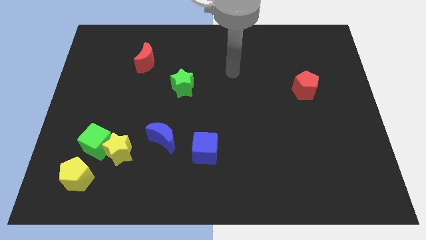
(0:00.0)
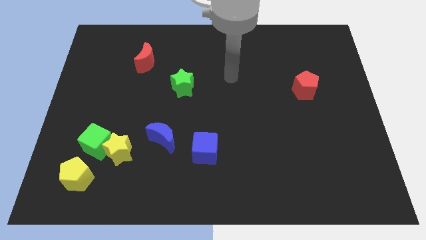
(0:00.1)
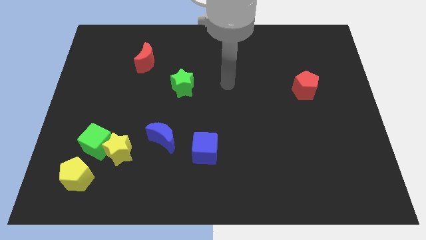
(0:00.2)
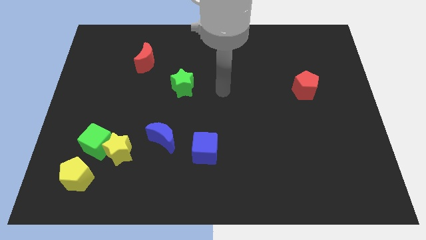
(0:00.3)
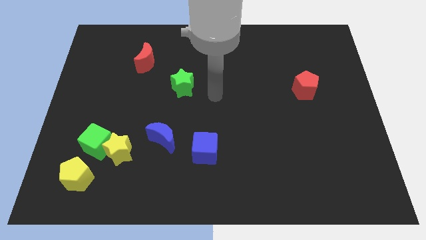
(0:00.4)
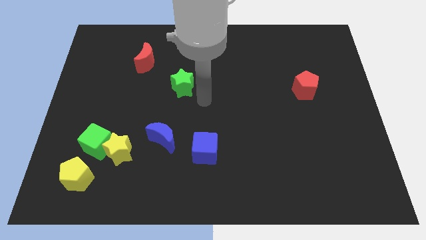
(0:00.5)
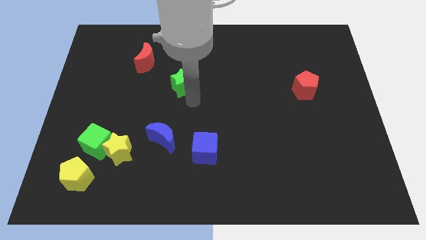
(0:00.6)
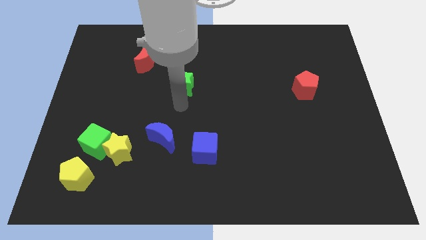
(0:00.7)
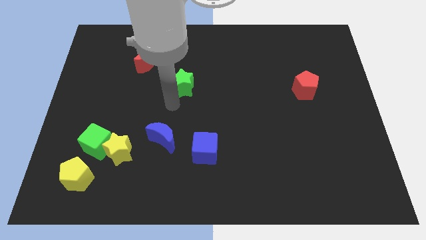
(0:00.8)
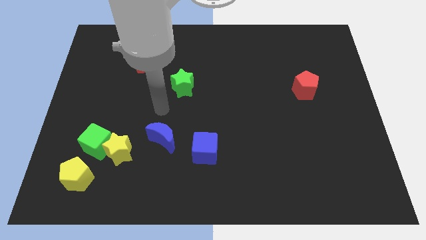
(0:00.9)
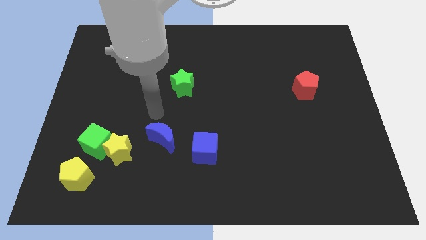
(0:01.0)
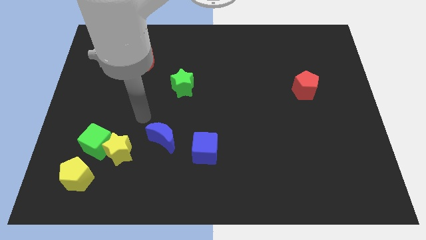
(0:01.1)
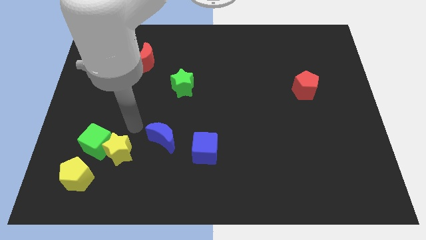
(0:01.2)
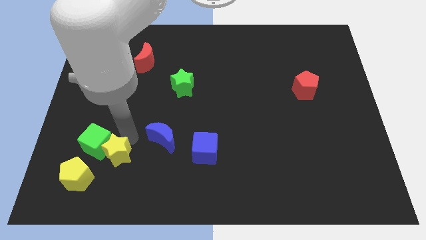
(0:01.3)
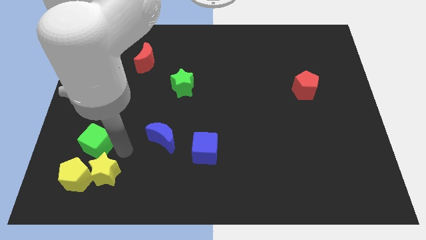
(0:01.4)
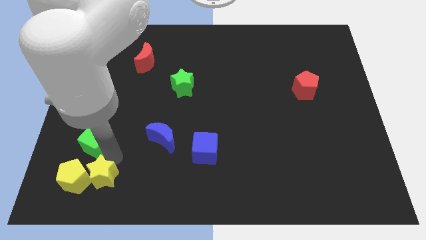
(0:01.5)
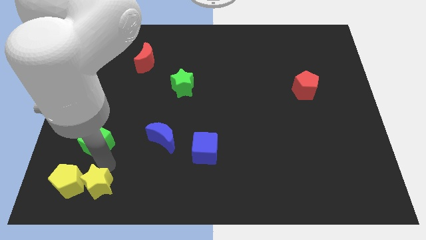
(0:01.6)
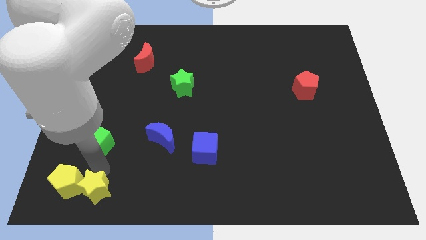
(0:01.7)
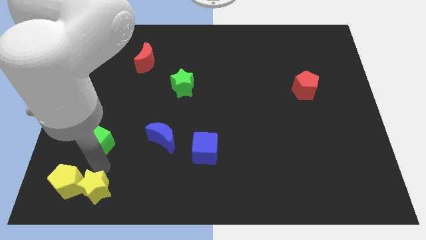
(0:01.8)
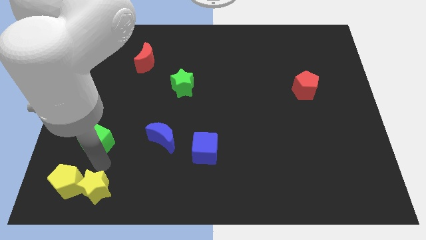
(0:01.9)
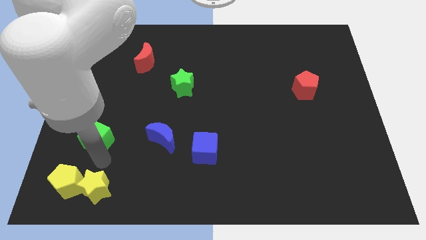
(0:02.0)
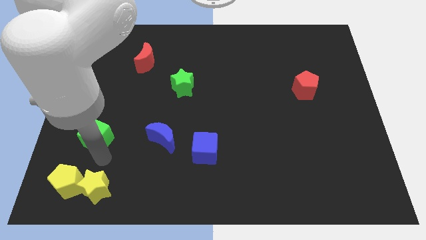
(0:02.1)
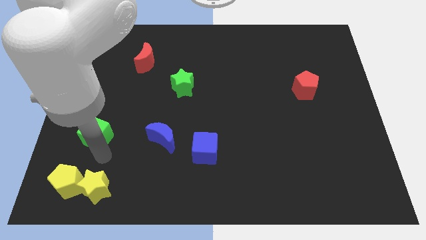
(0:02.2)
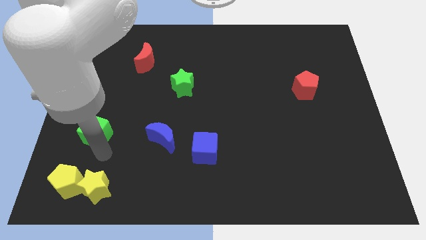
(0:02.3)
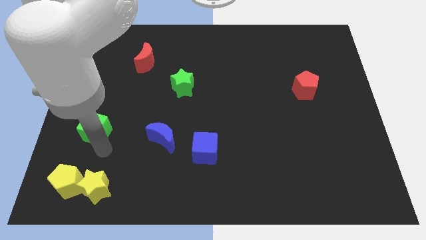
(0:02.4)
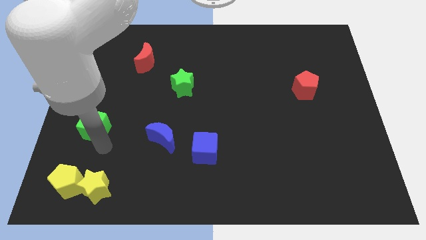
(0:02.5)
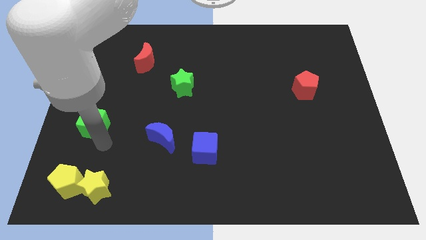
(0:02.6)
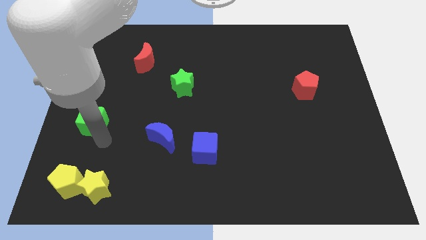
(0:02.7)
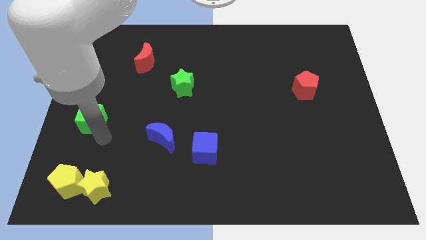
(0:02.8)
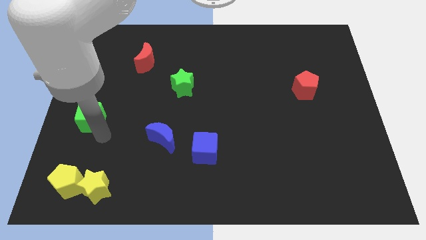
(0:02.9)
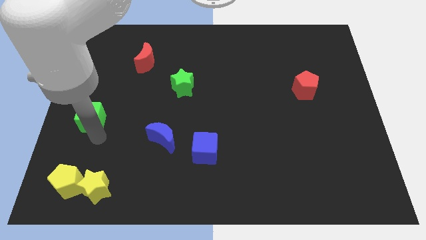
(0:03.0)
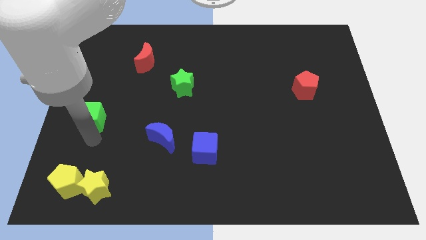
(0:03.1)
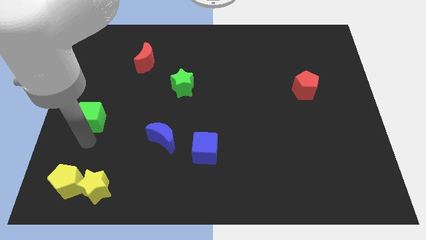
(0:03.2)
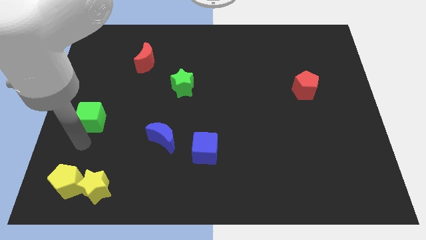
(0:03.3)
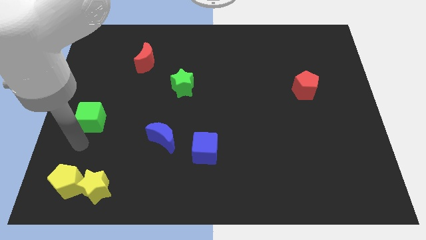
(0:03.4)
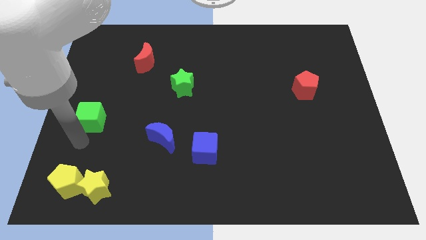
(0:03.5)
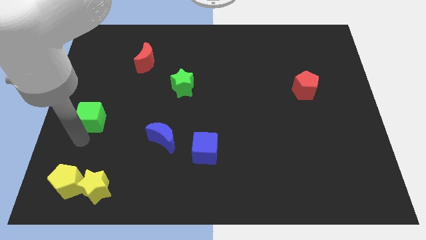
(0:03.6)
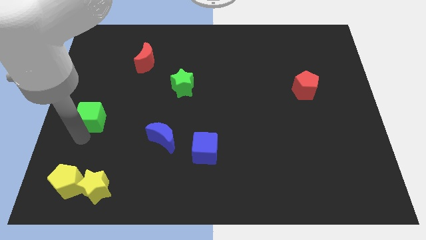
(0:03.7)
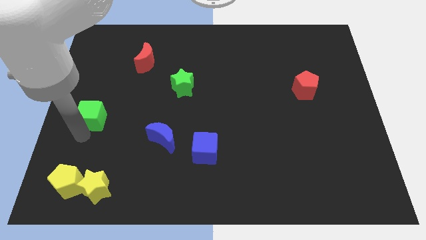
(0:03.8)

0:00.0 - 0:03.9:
move the green cube up a bit

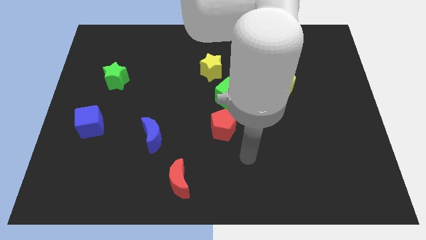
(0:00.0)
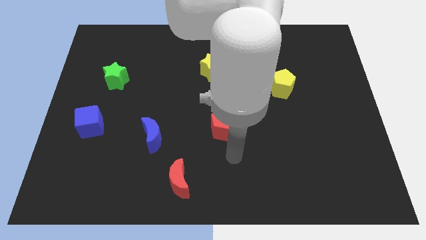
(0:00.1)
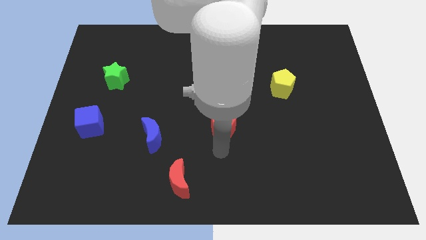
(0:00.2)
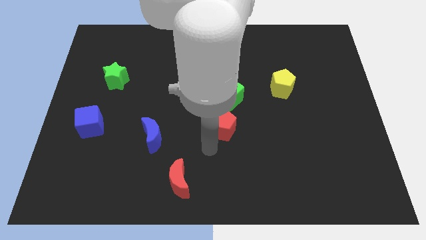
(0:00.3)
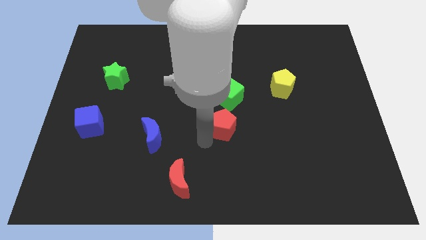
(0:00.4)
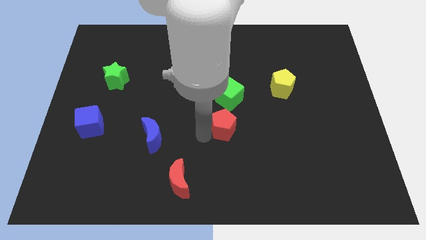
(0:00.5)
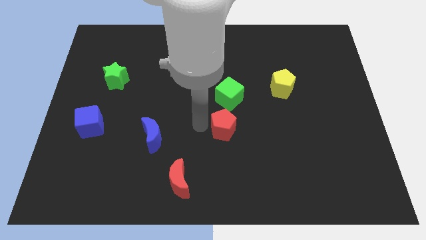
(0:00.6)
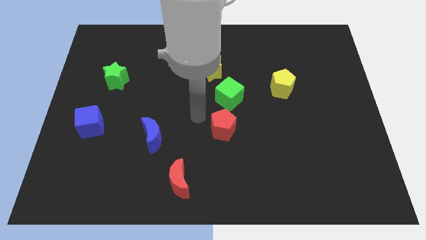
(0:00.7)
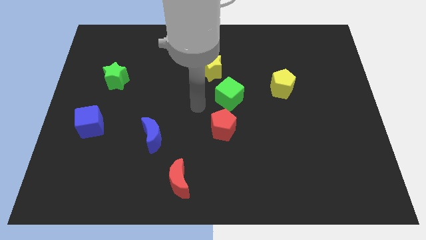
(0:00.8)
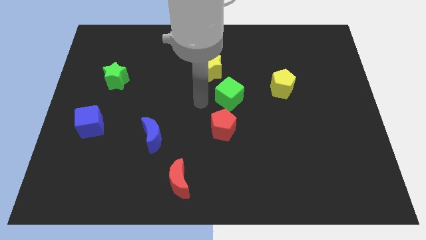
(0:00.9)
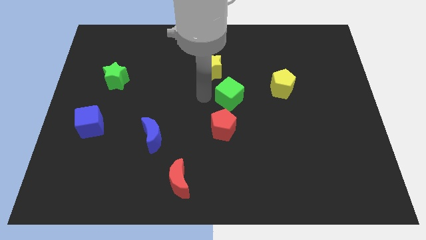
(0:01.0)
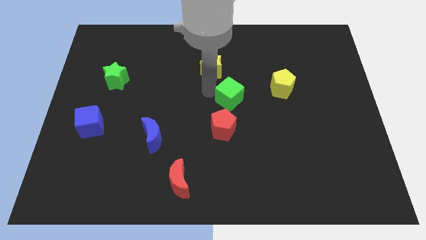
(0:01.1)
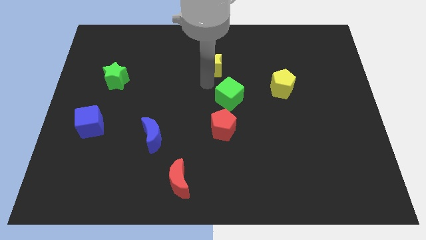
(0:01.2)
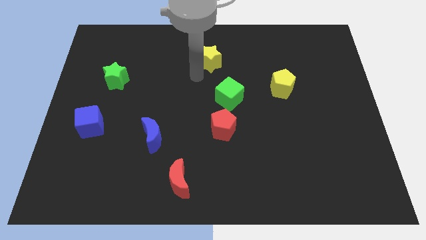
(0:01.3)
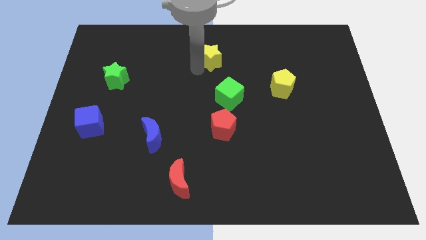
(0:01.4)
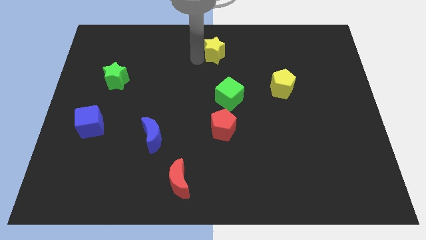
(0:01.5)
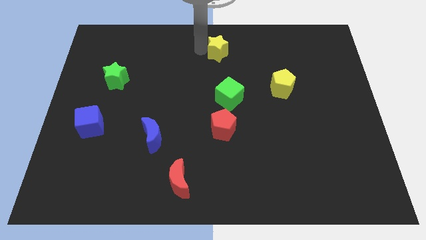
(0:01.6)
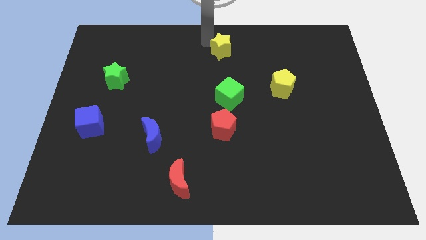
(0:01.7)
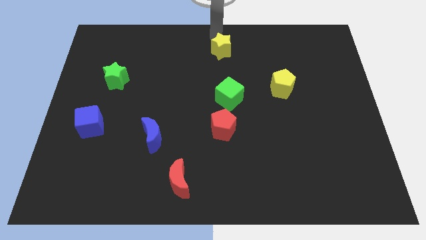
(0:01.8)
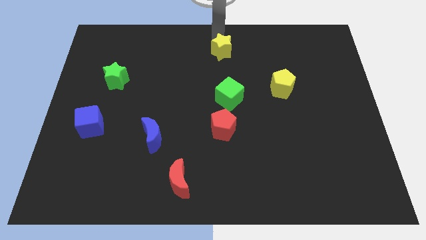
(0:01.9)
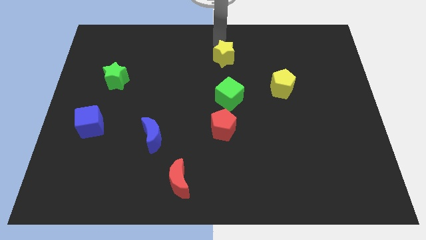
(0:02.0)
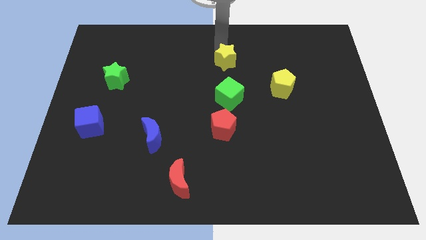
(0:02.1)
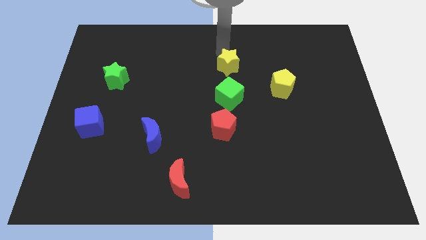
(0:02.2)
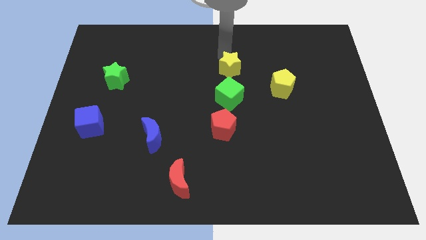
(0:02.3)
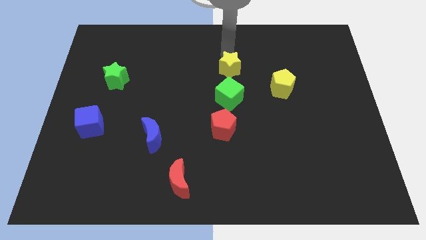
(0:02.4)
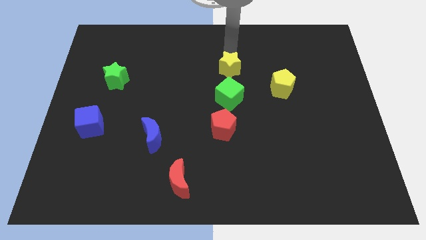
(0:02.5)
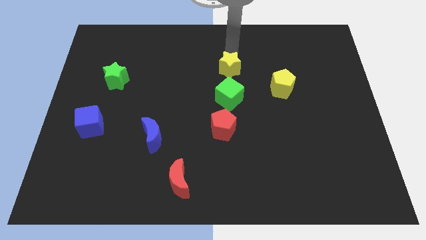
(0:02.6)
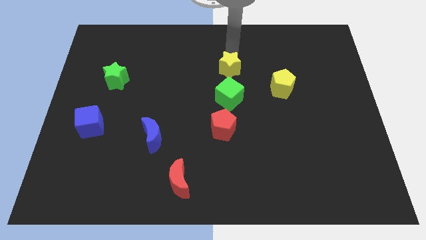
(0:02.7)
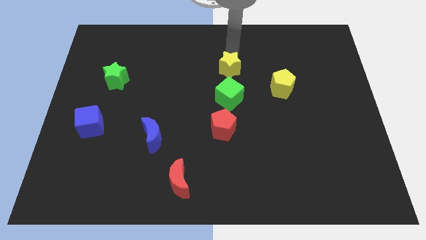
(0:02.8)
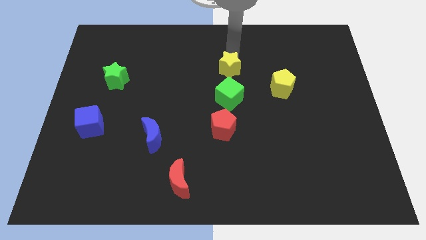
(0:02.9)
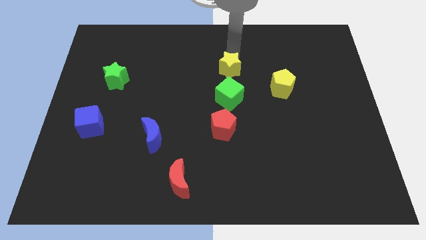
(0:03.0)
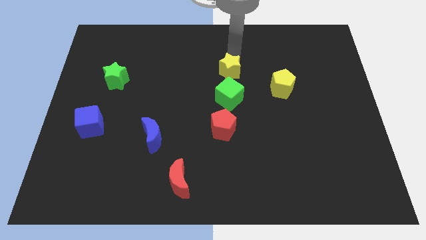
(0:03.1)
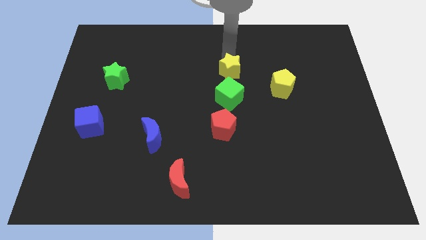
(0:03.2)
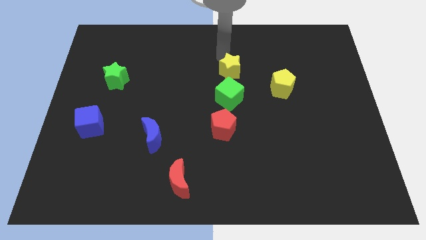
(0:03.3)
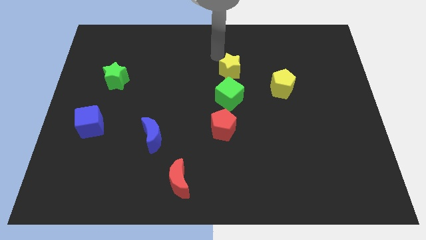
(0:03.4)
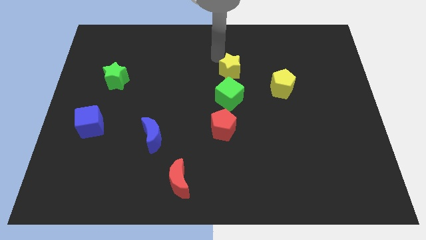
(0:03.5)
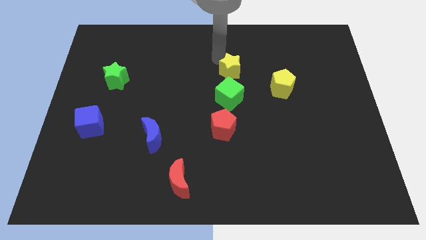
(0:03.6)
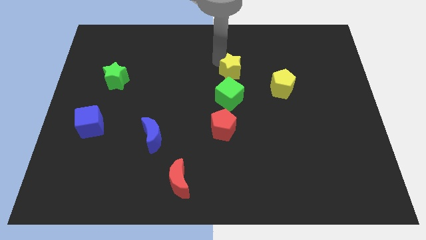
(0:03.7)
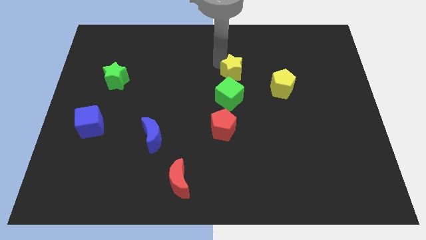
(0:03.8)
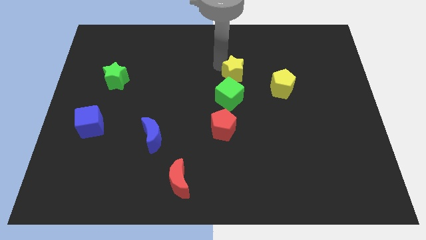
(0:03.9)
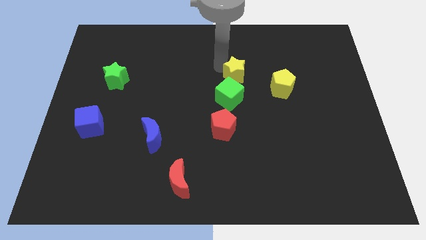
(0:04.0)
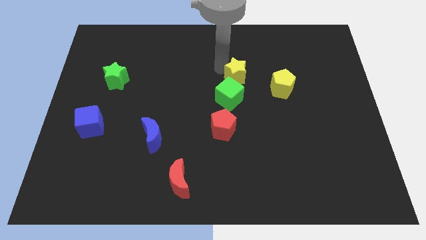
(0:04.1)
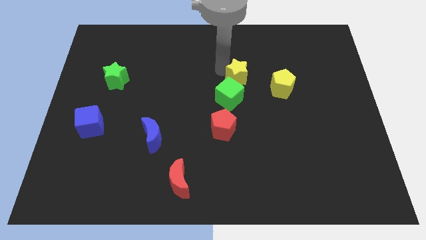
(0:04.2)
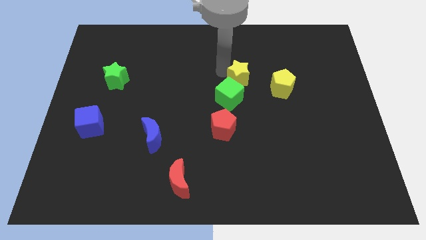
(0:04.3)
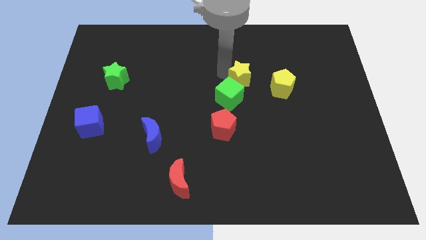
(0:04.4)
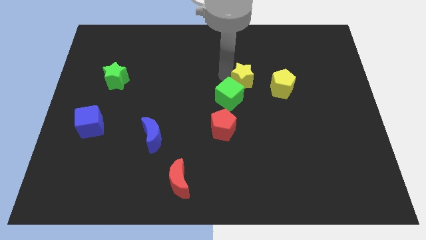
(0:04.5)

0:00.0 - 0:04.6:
slide the yellow star downwards and to the right diagonally a little
